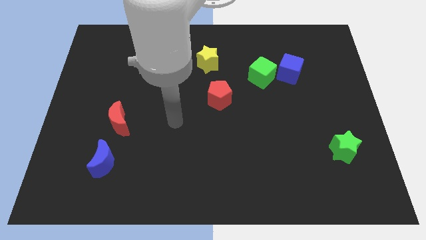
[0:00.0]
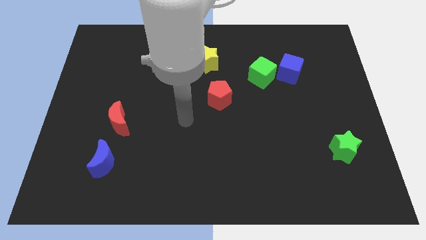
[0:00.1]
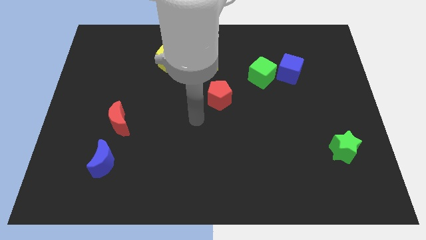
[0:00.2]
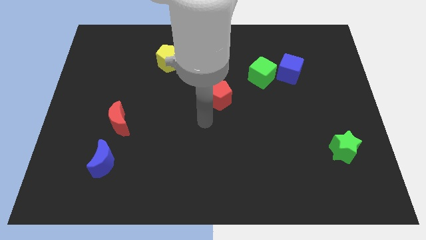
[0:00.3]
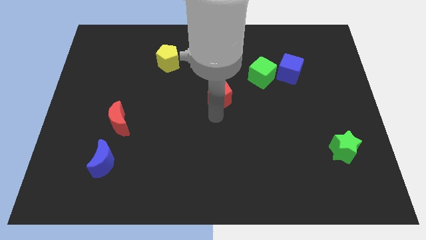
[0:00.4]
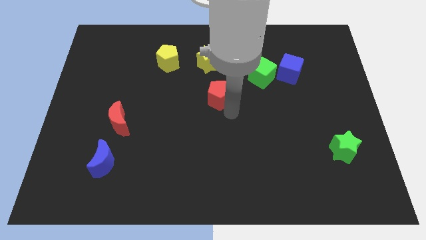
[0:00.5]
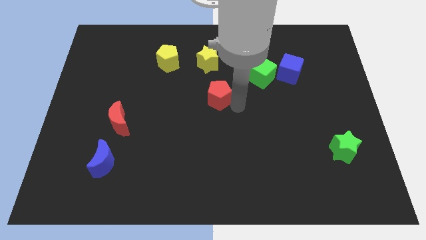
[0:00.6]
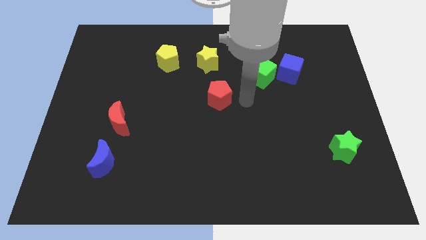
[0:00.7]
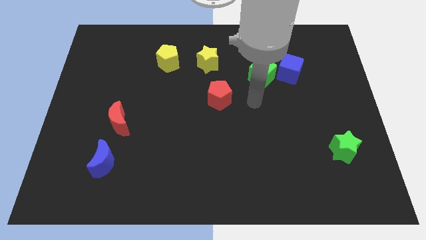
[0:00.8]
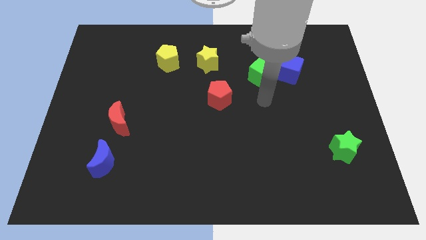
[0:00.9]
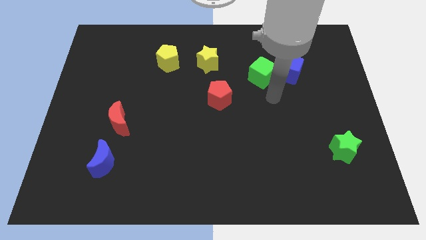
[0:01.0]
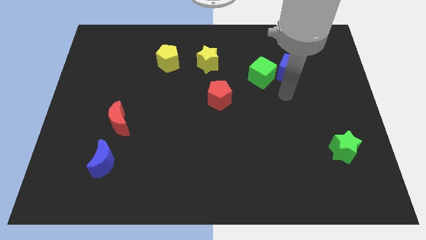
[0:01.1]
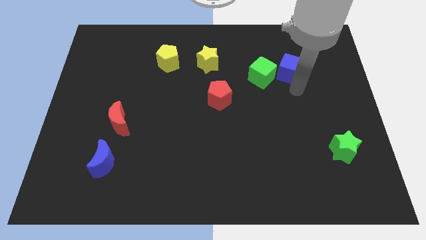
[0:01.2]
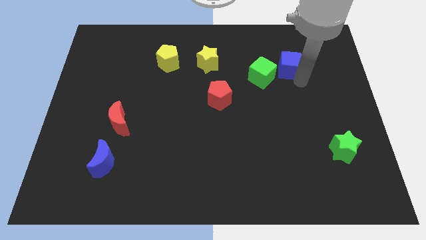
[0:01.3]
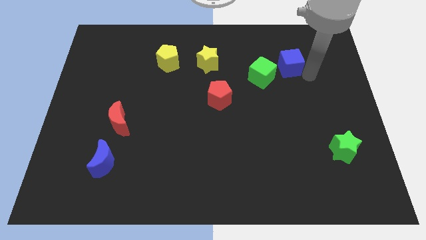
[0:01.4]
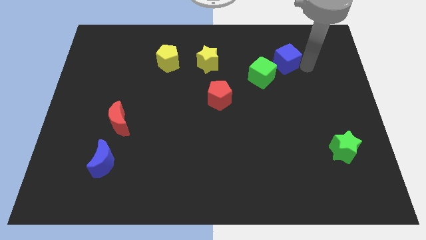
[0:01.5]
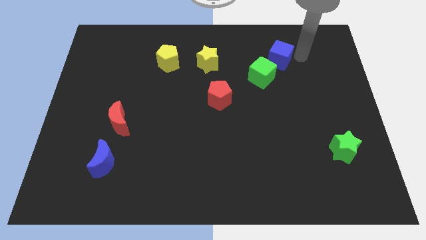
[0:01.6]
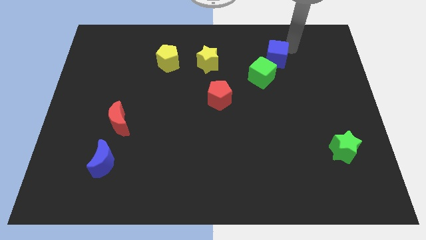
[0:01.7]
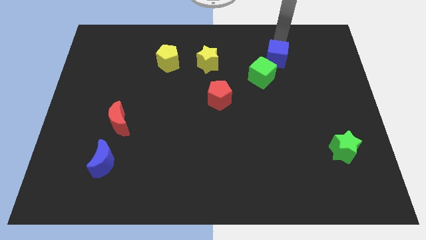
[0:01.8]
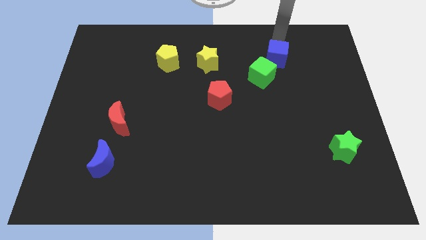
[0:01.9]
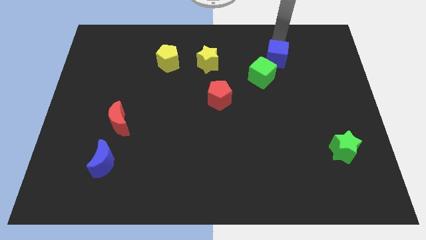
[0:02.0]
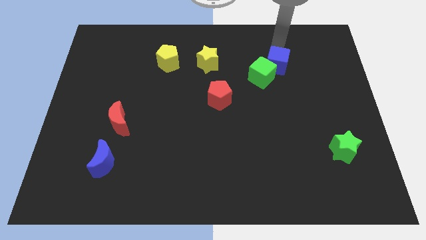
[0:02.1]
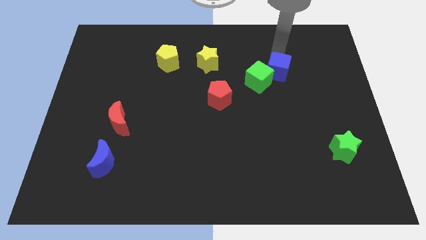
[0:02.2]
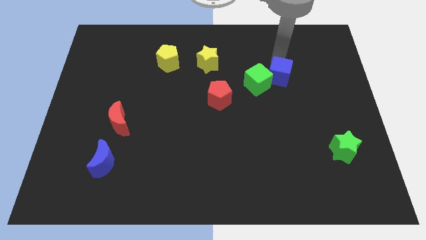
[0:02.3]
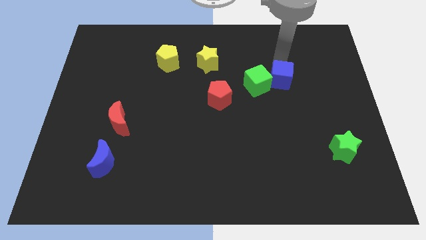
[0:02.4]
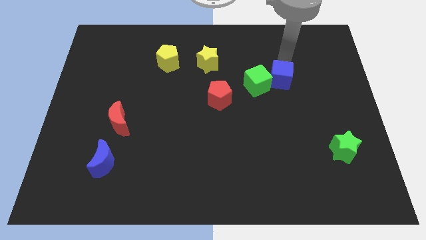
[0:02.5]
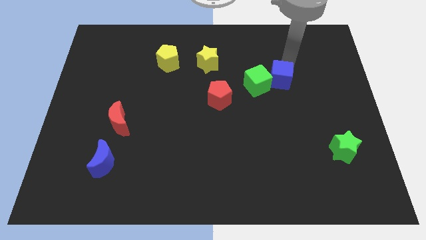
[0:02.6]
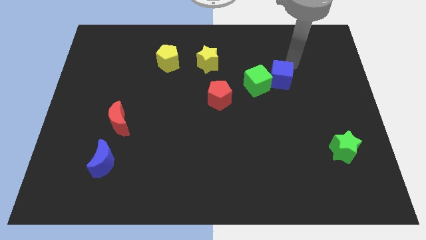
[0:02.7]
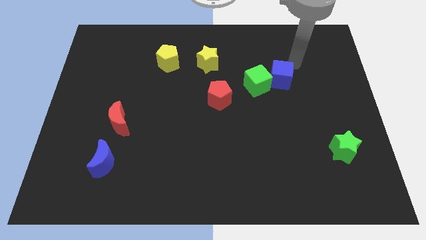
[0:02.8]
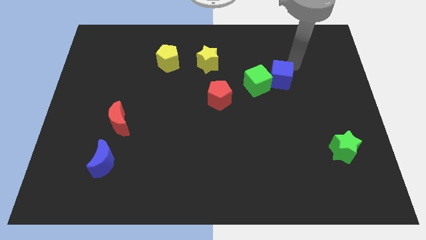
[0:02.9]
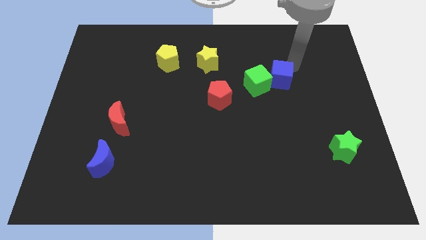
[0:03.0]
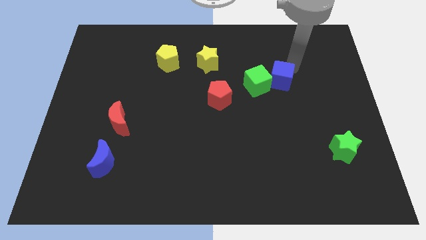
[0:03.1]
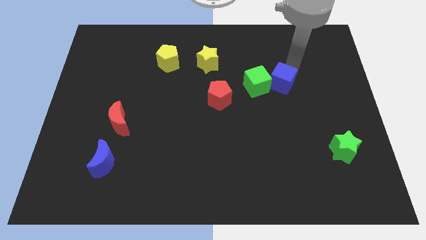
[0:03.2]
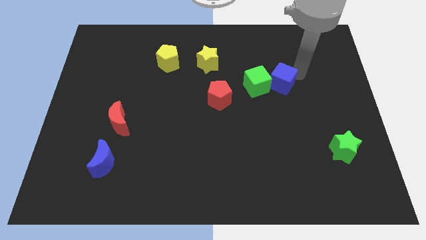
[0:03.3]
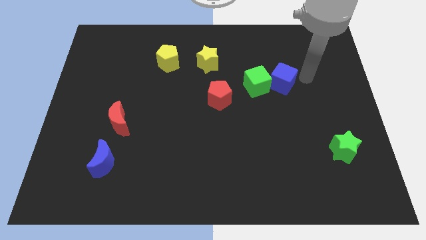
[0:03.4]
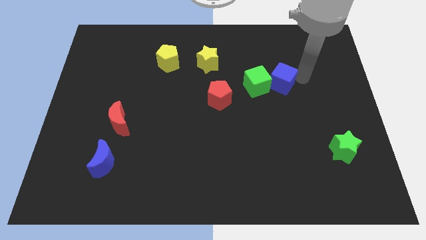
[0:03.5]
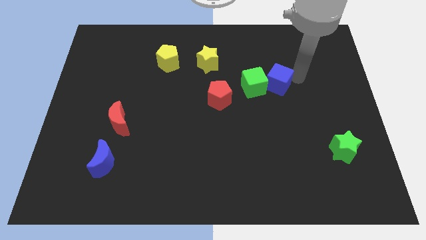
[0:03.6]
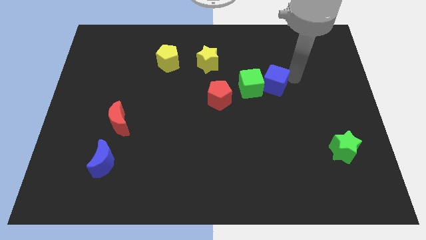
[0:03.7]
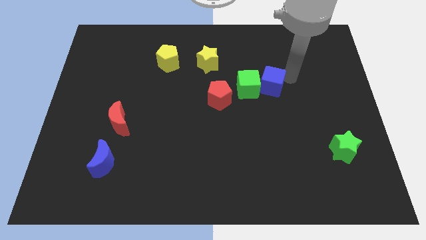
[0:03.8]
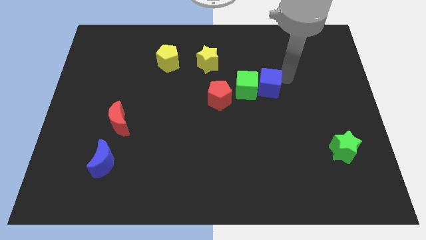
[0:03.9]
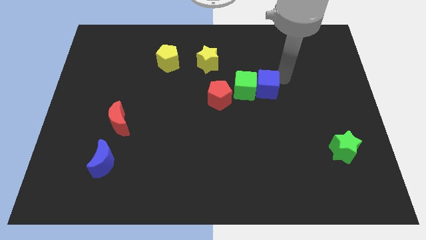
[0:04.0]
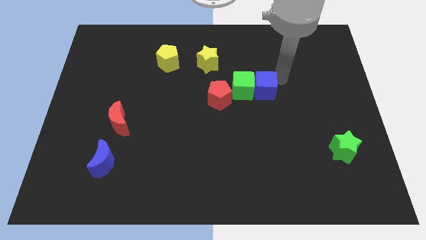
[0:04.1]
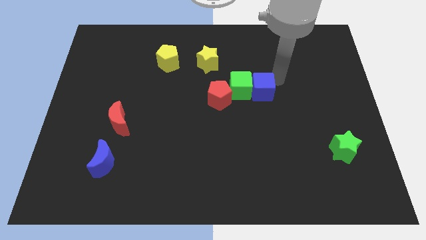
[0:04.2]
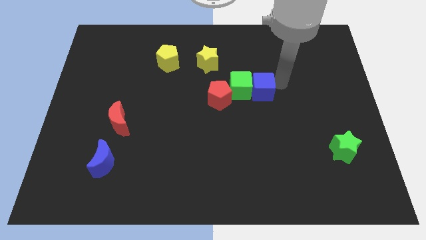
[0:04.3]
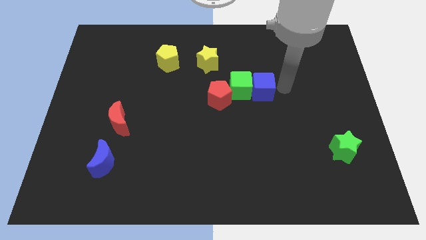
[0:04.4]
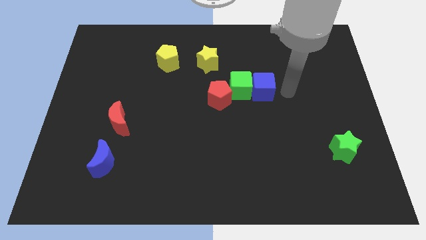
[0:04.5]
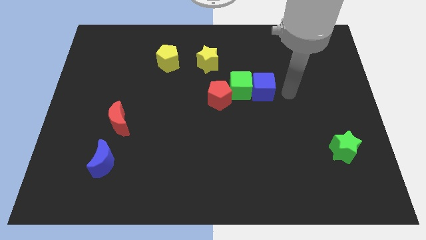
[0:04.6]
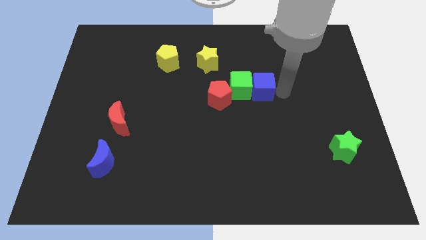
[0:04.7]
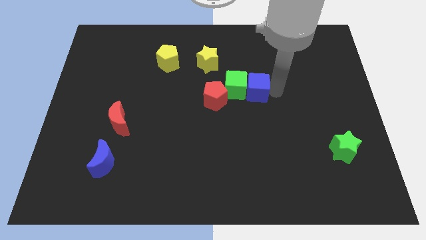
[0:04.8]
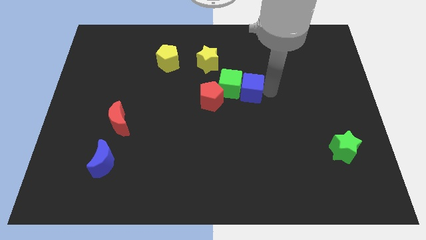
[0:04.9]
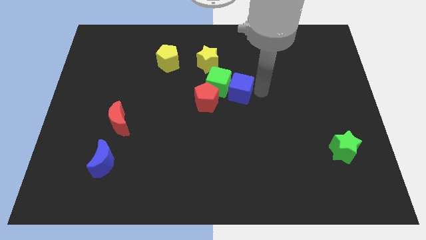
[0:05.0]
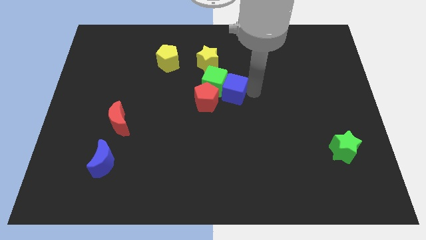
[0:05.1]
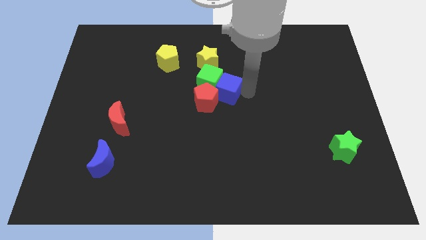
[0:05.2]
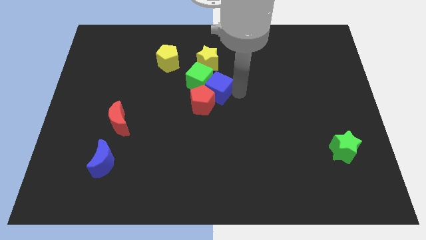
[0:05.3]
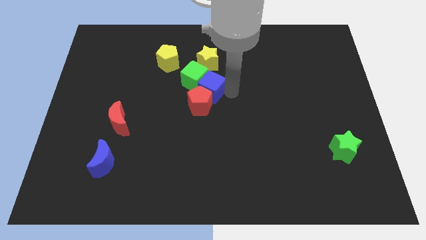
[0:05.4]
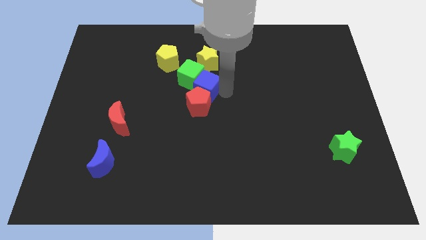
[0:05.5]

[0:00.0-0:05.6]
move the blue cube to the left

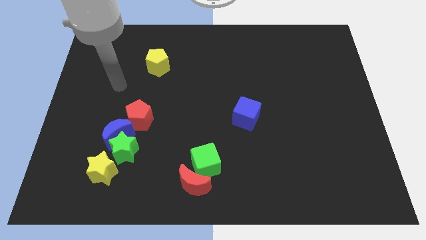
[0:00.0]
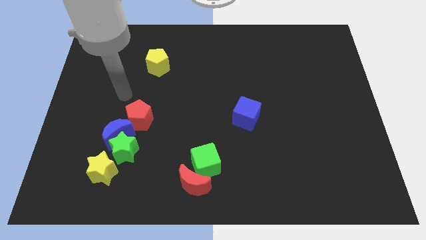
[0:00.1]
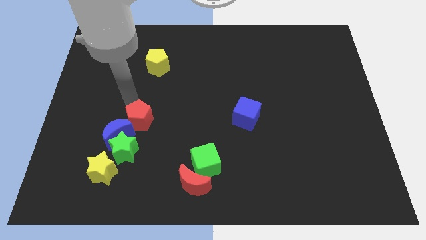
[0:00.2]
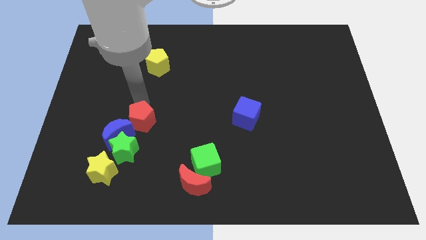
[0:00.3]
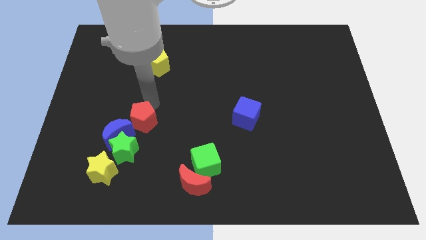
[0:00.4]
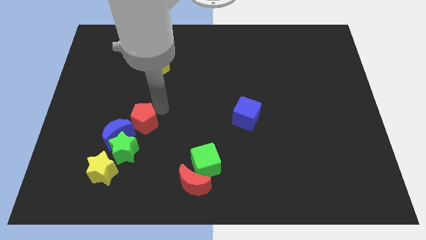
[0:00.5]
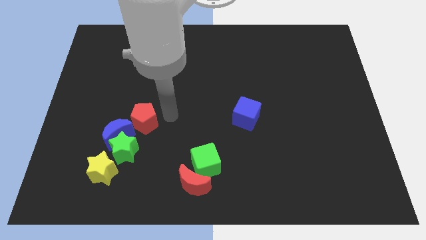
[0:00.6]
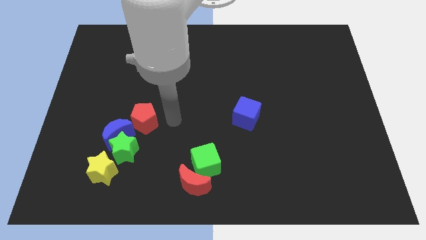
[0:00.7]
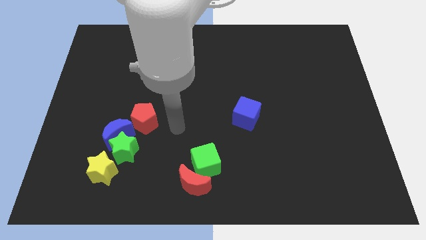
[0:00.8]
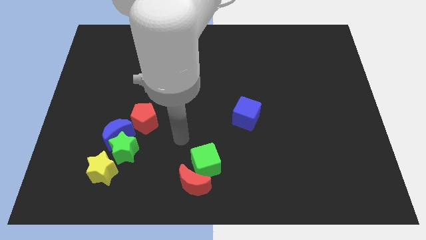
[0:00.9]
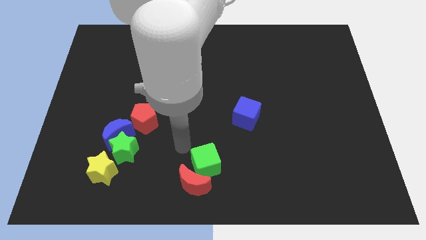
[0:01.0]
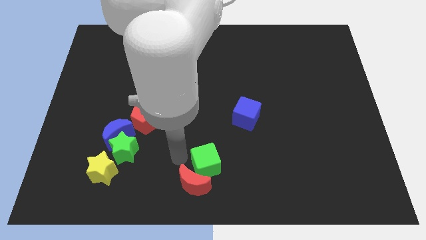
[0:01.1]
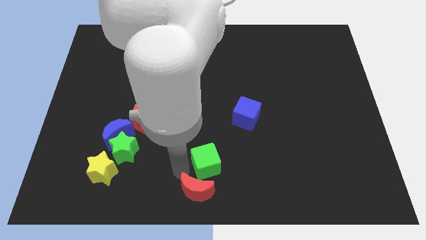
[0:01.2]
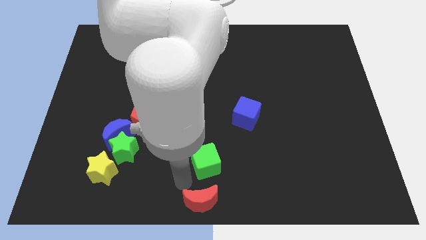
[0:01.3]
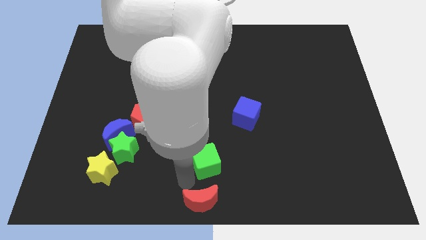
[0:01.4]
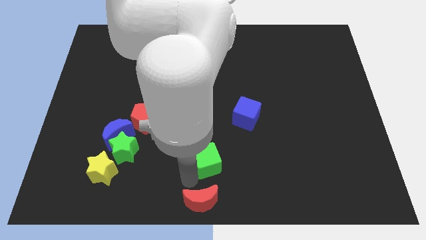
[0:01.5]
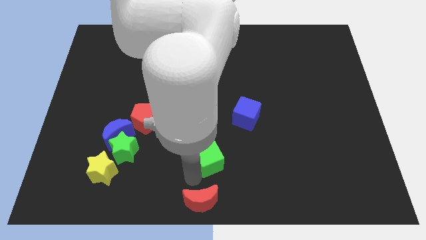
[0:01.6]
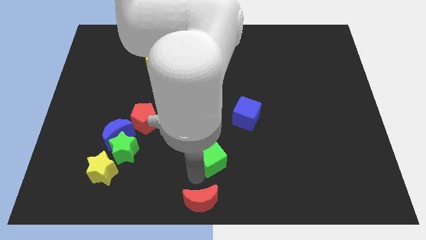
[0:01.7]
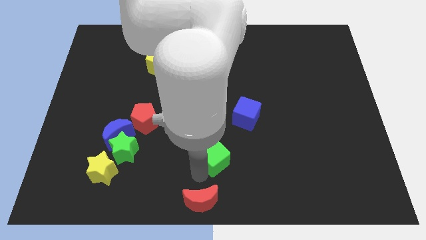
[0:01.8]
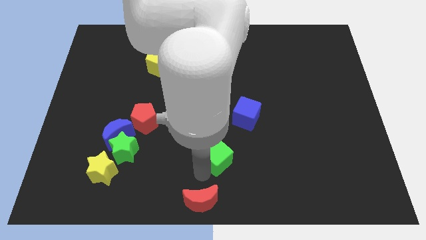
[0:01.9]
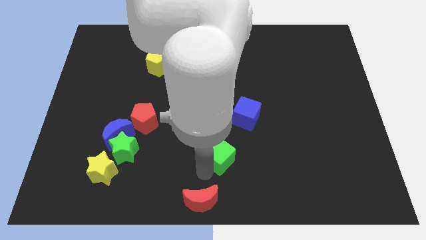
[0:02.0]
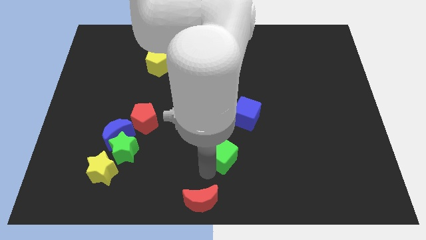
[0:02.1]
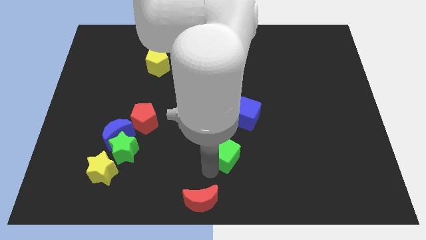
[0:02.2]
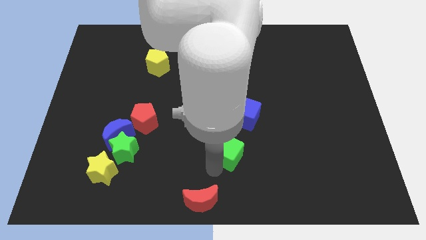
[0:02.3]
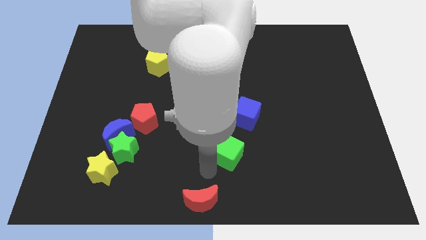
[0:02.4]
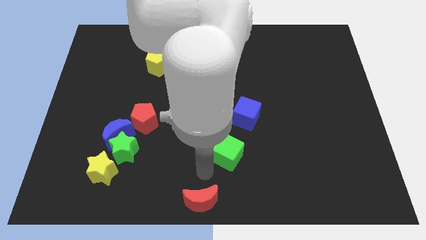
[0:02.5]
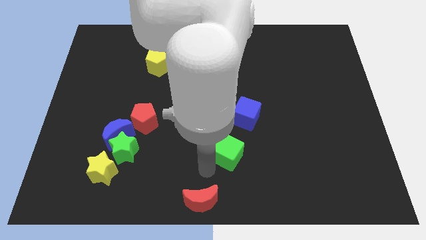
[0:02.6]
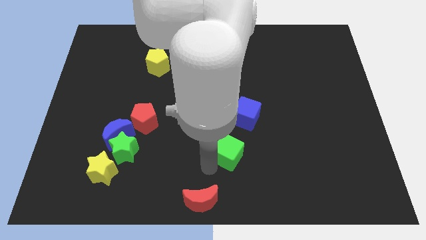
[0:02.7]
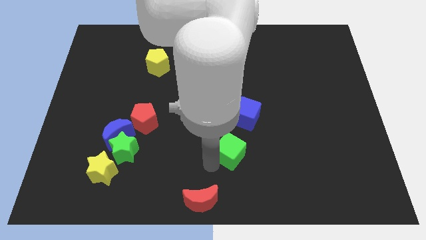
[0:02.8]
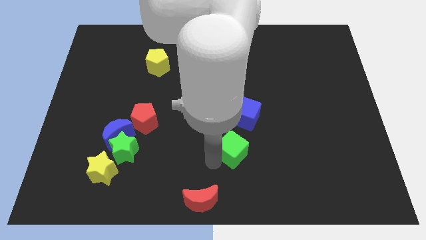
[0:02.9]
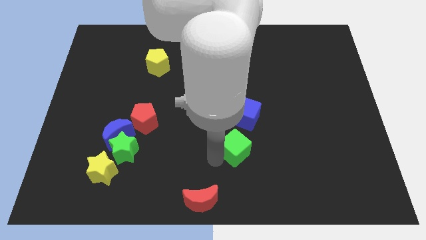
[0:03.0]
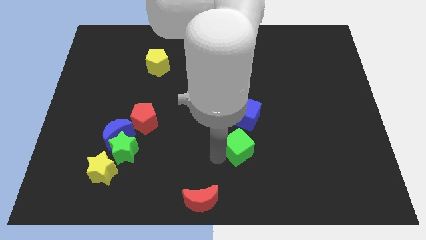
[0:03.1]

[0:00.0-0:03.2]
slightly slide the green cube diagonally up and right
